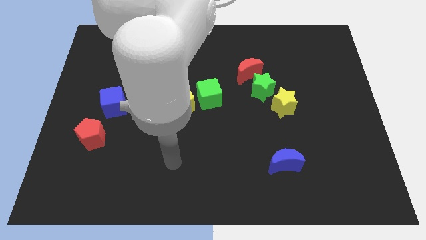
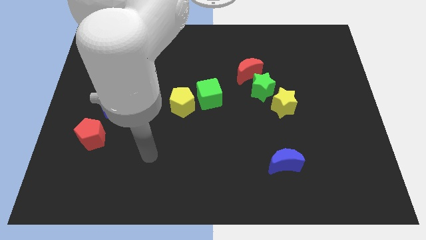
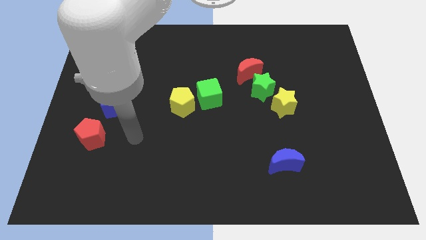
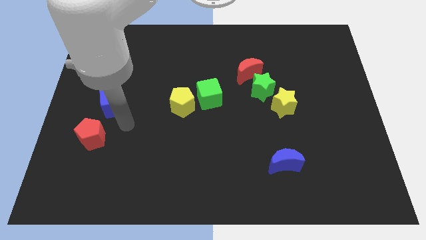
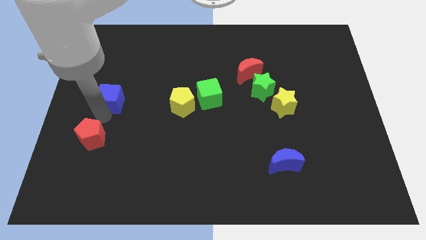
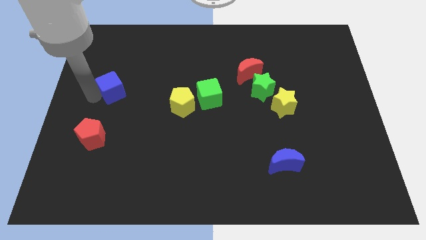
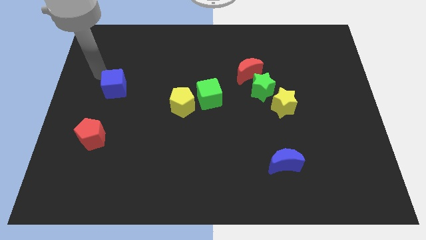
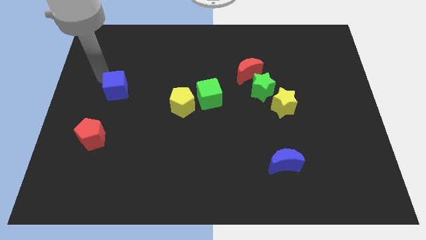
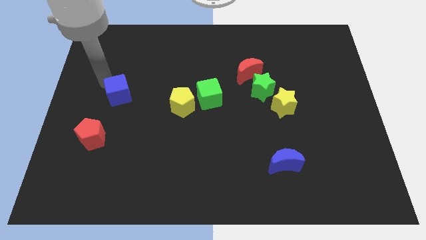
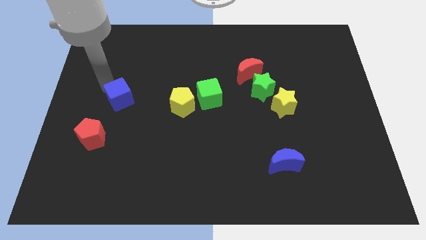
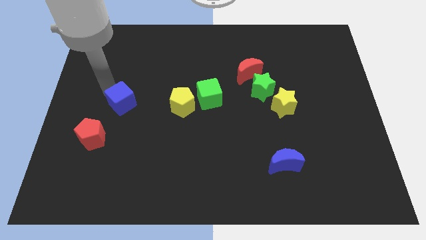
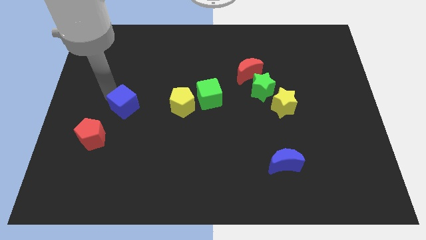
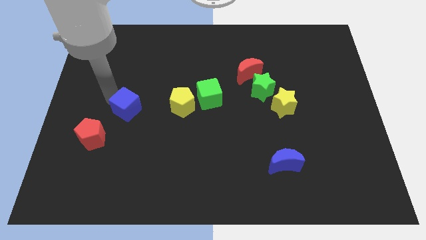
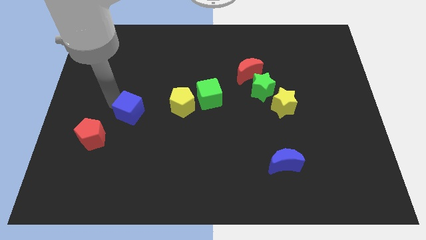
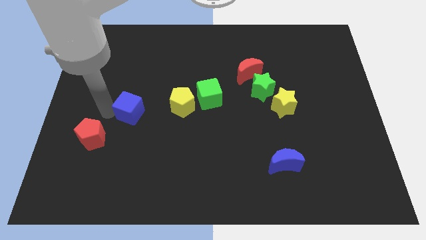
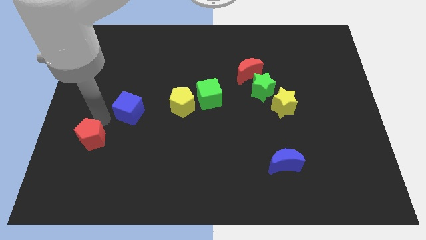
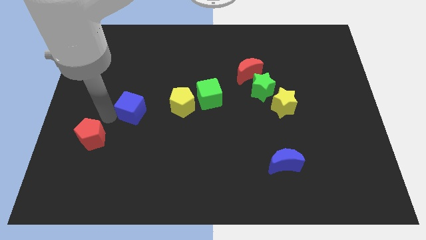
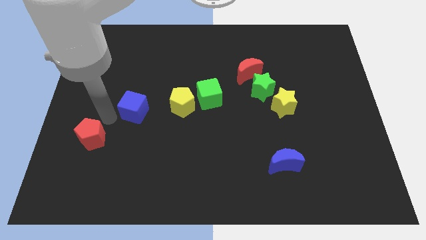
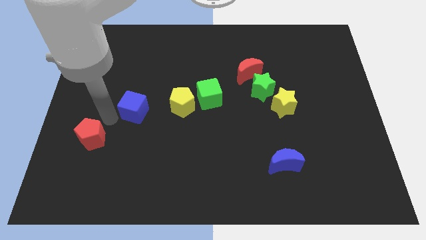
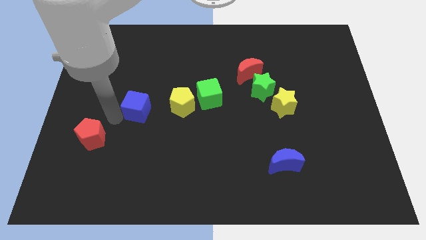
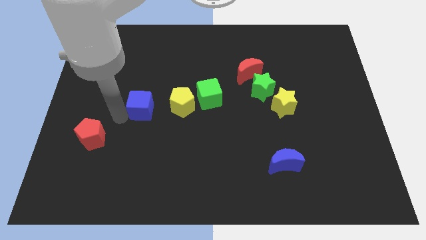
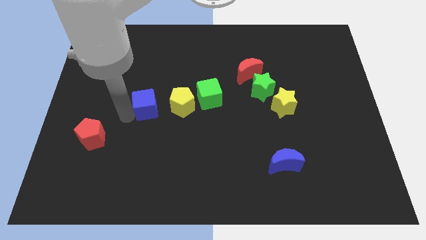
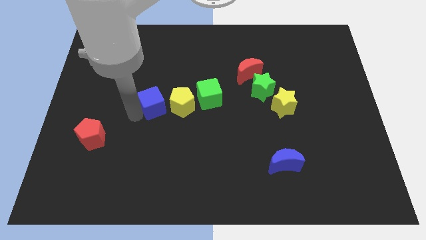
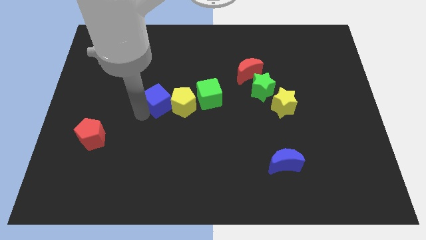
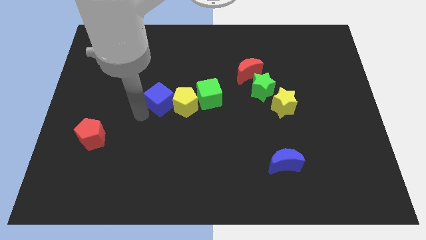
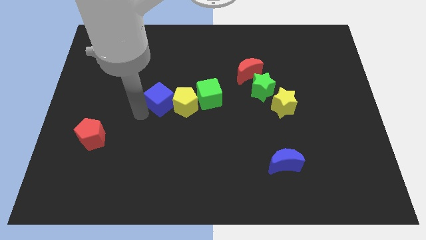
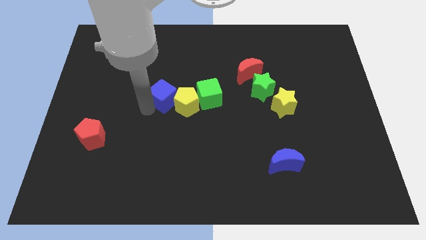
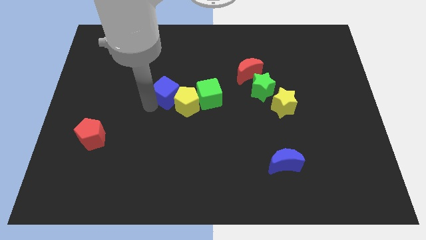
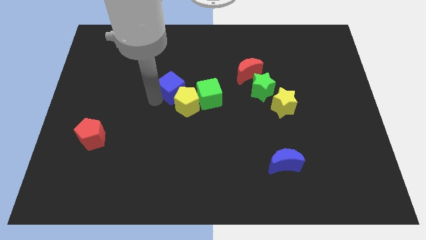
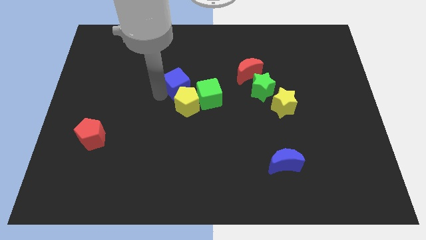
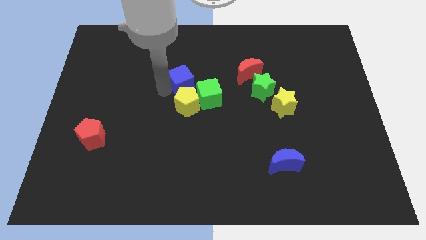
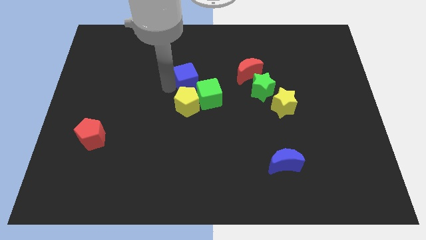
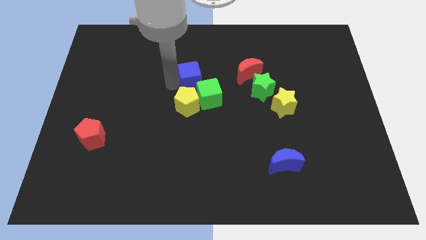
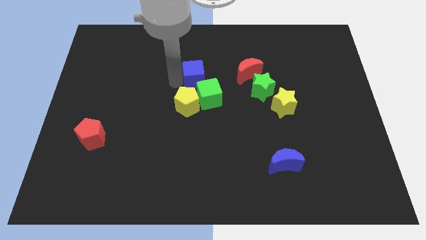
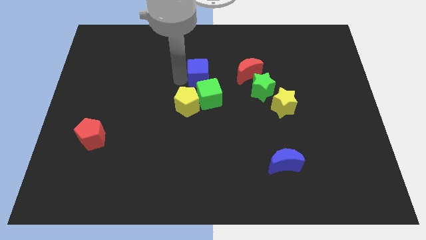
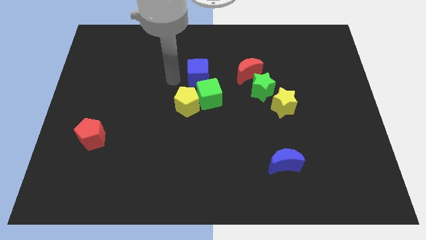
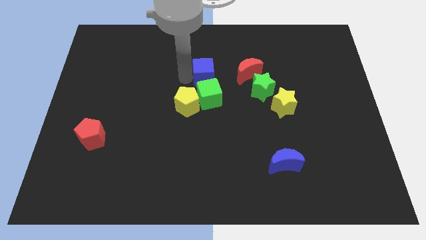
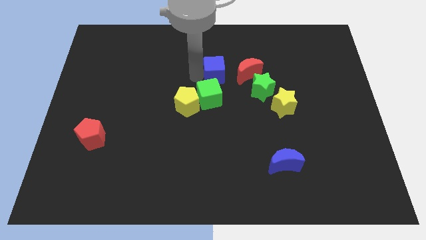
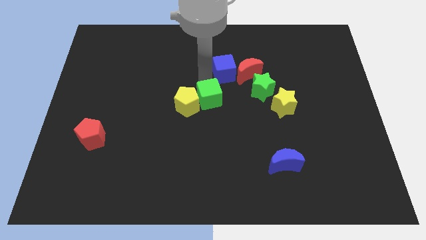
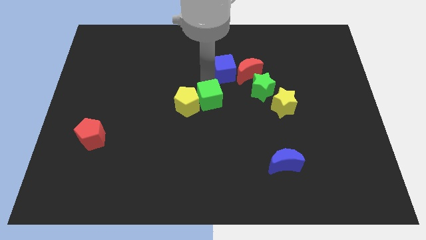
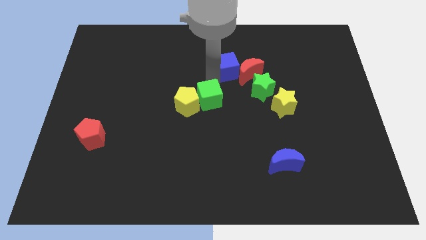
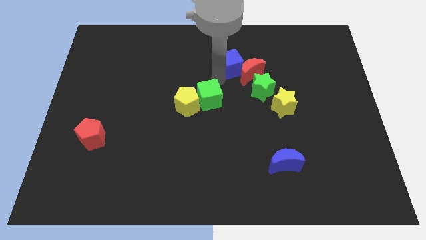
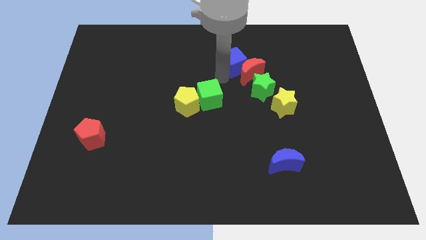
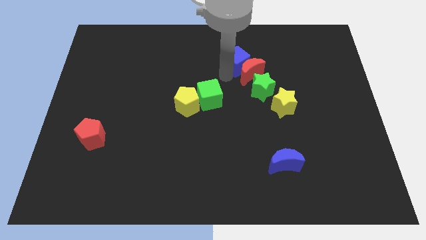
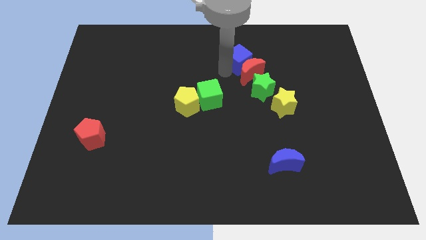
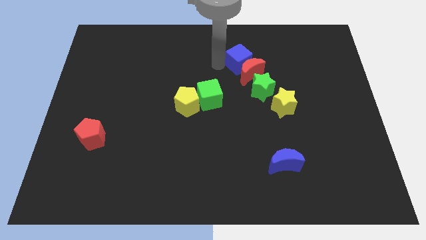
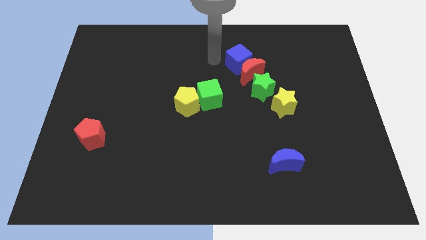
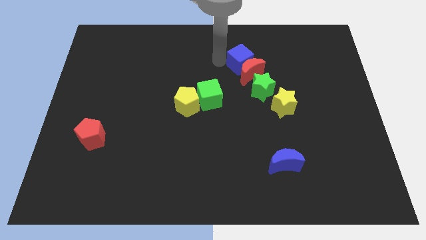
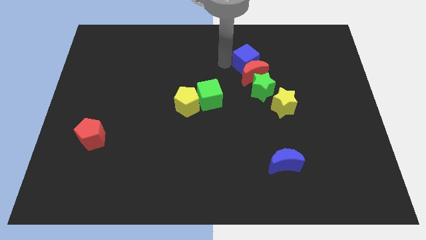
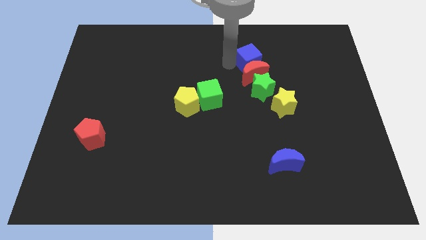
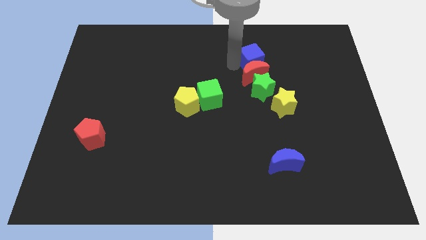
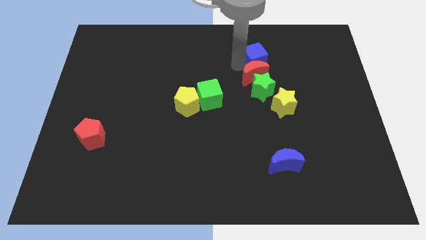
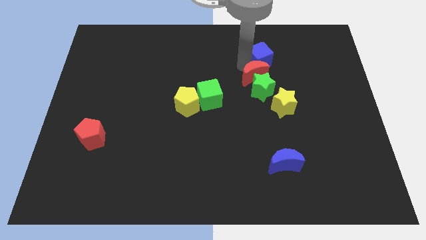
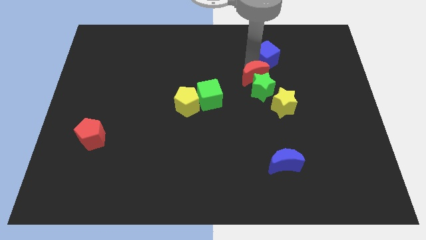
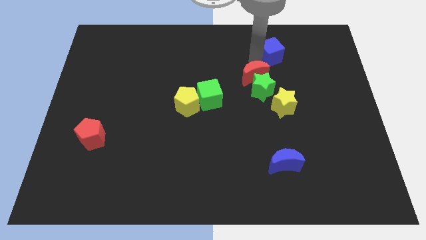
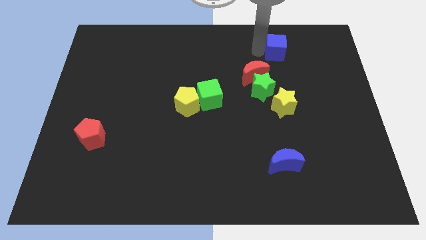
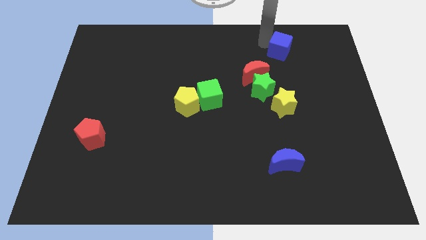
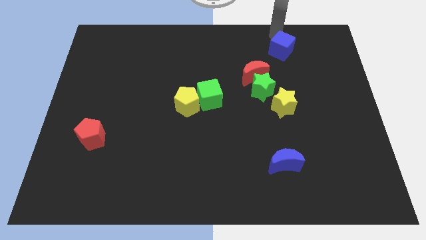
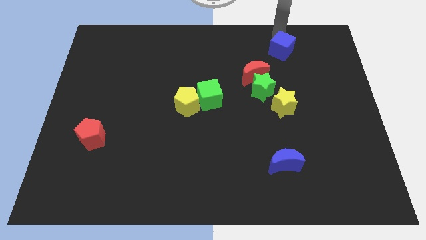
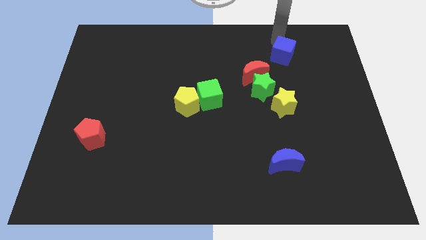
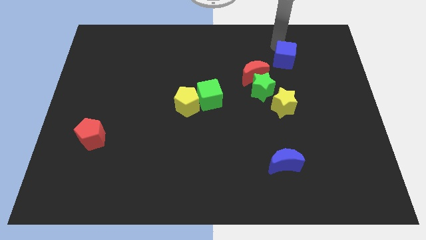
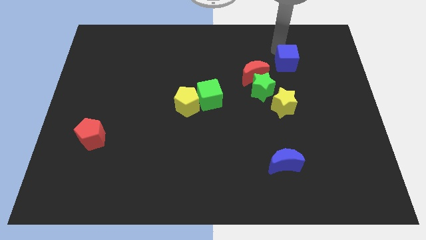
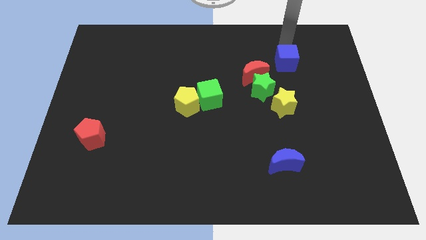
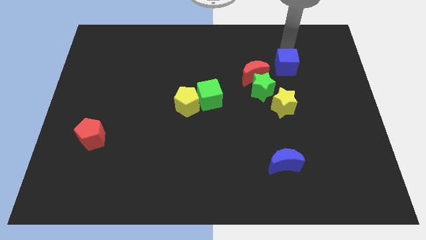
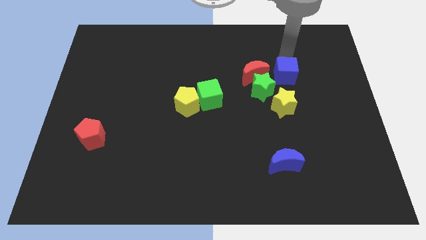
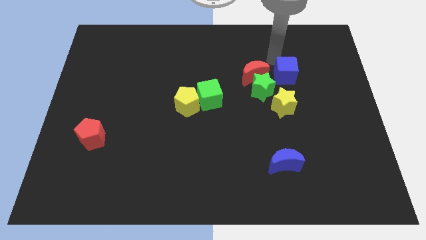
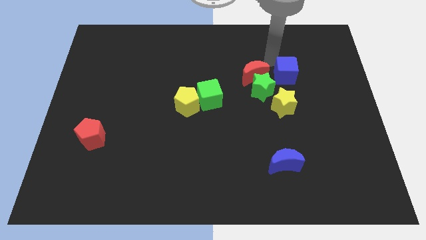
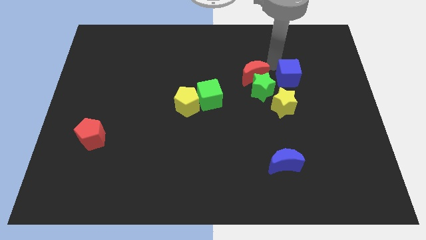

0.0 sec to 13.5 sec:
push the blue cube to the top right side of the yellow star

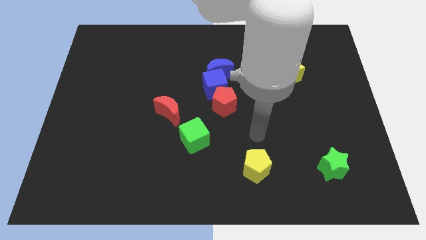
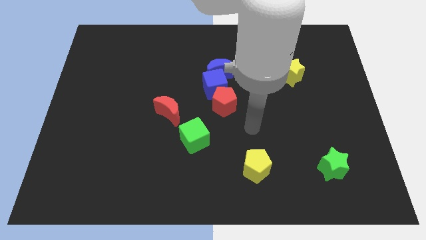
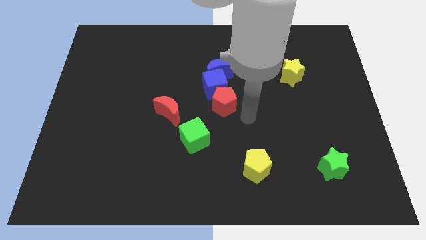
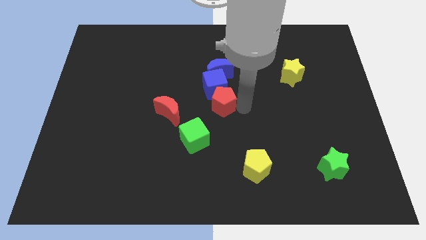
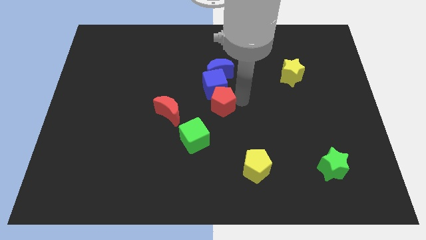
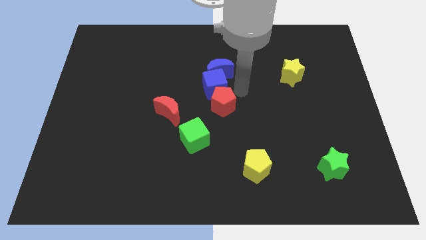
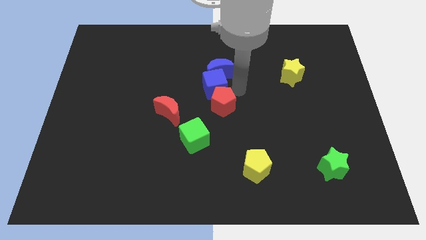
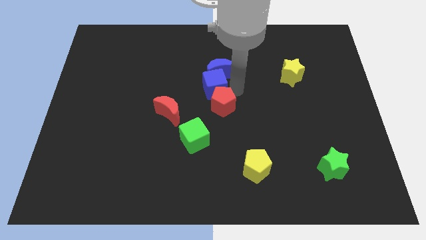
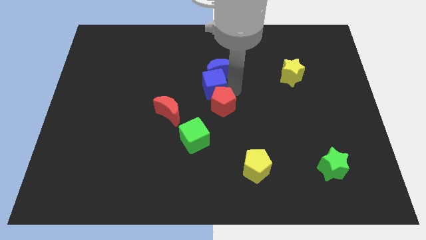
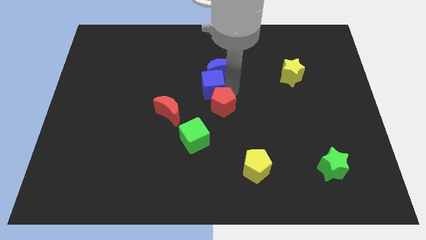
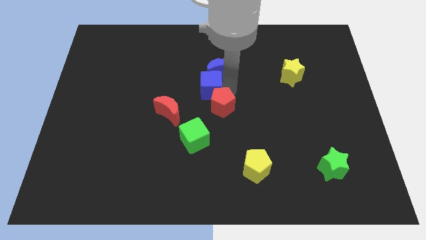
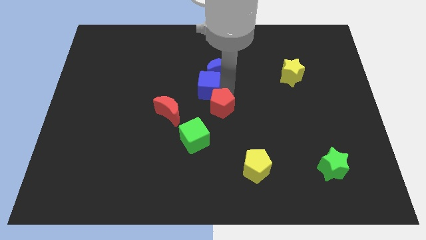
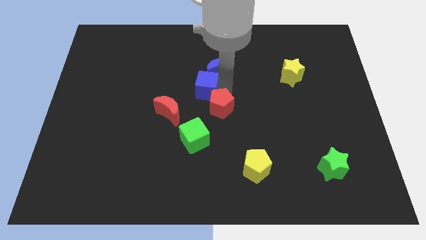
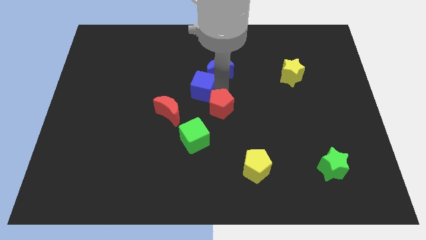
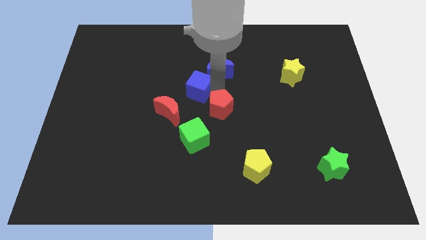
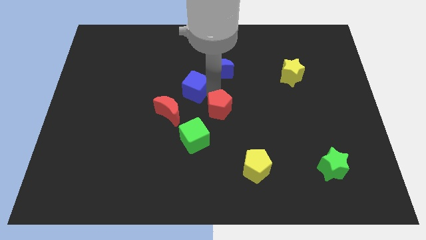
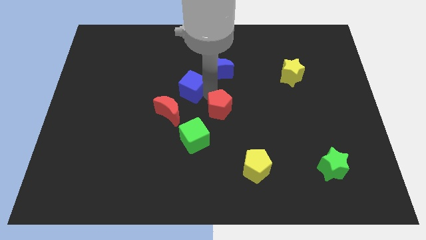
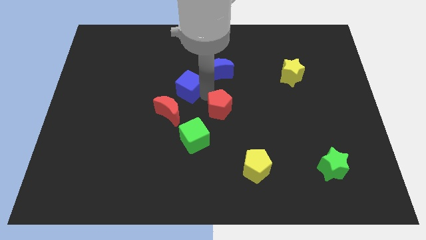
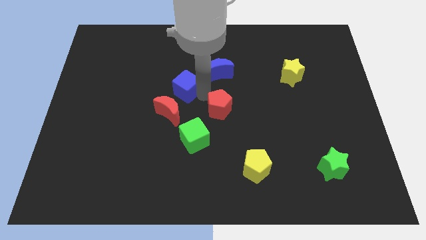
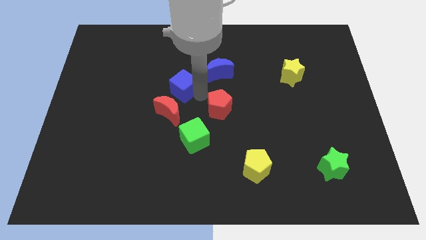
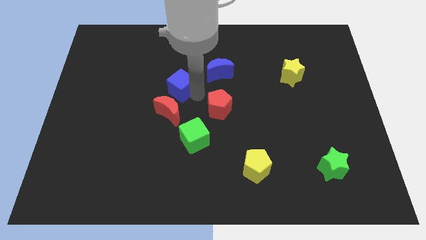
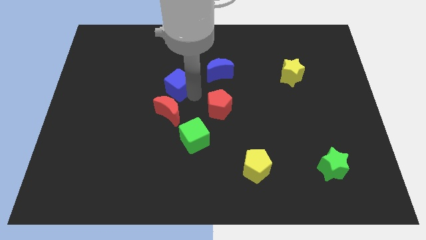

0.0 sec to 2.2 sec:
push the blue cube left of the blue moon
